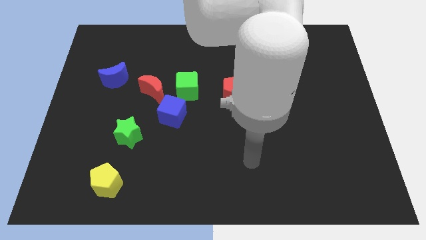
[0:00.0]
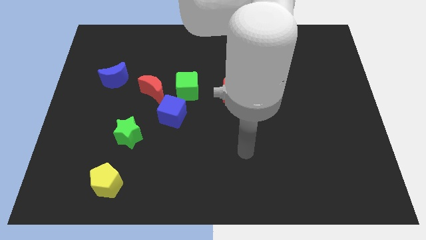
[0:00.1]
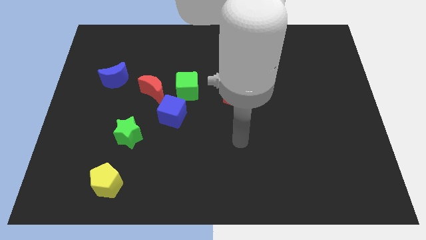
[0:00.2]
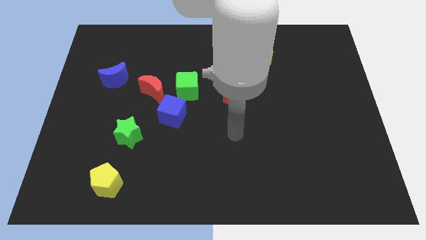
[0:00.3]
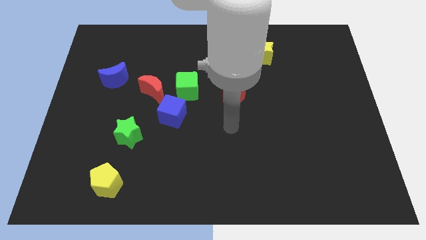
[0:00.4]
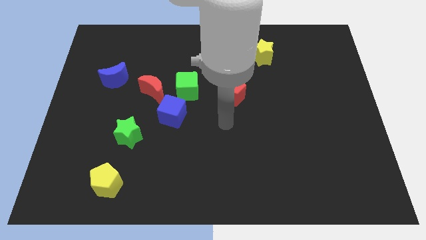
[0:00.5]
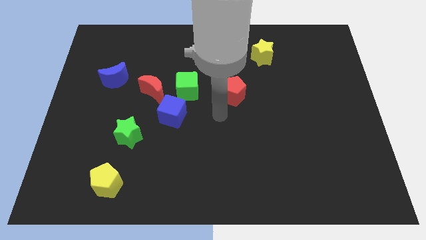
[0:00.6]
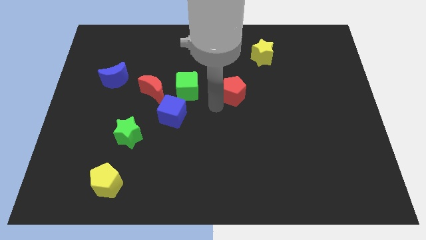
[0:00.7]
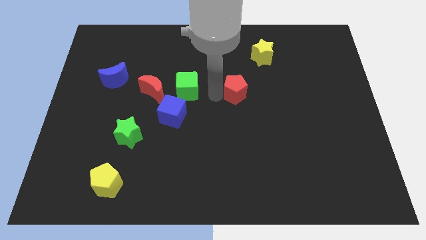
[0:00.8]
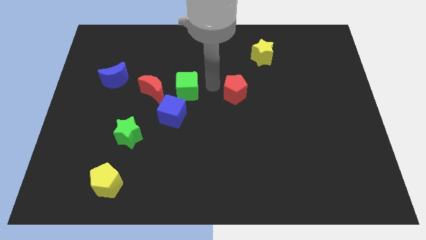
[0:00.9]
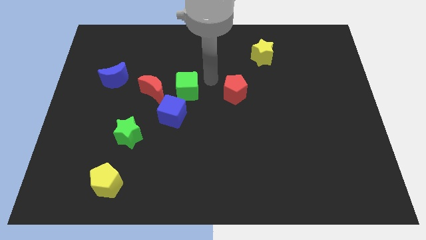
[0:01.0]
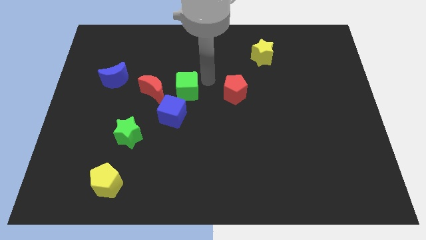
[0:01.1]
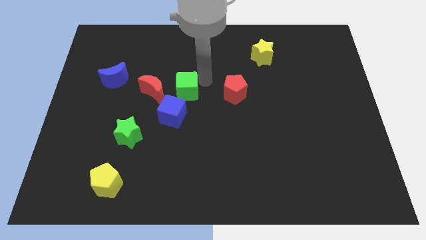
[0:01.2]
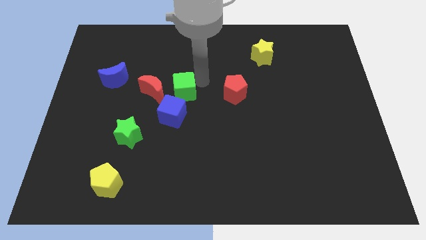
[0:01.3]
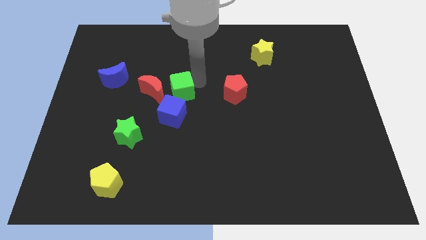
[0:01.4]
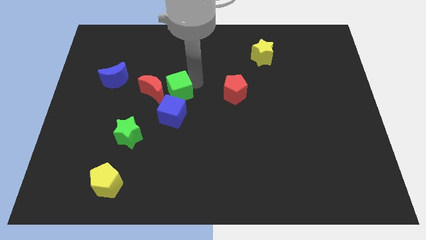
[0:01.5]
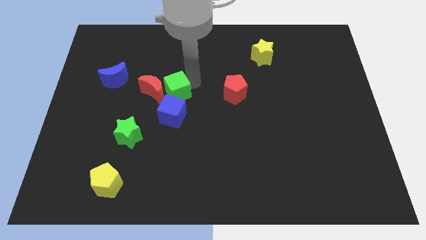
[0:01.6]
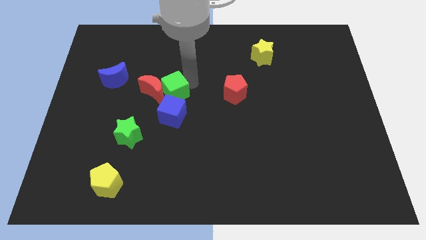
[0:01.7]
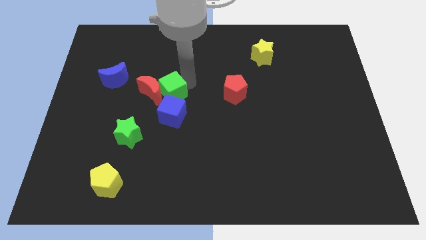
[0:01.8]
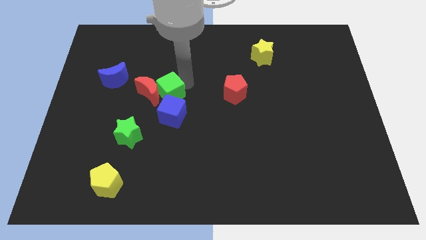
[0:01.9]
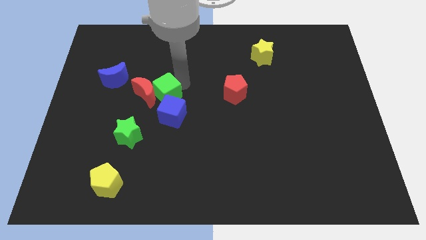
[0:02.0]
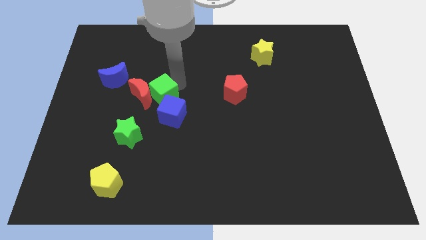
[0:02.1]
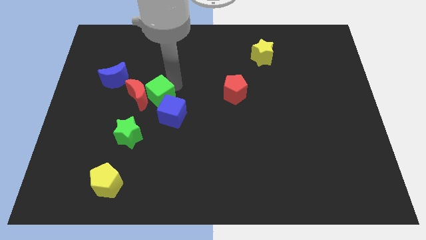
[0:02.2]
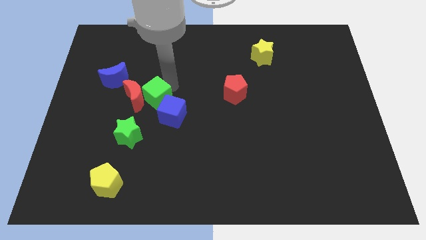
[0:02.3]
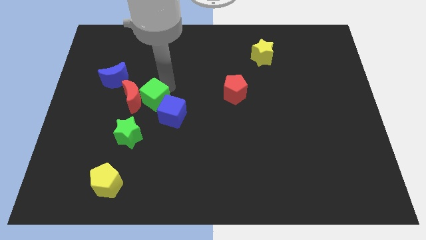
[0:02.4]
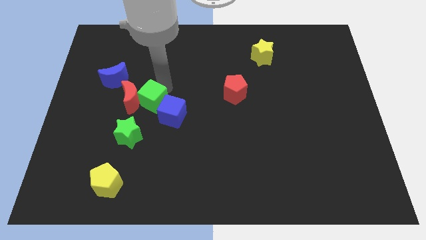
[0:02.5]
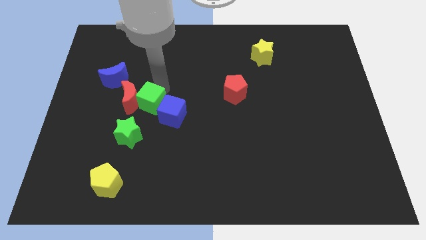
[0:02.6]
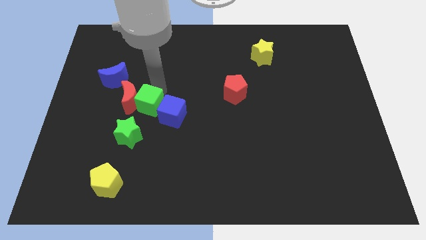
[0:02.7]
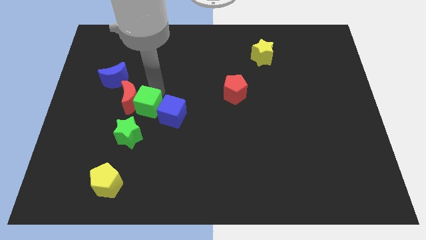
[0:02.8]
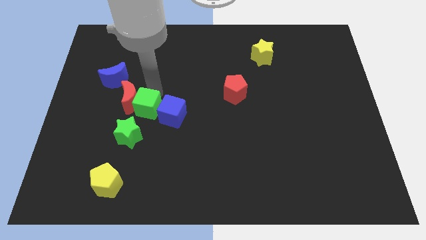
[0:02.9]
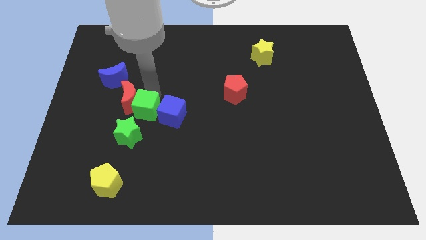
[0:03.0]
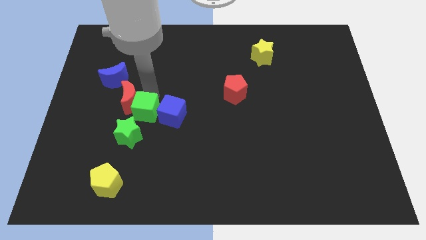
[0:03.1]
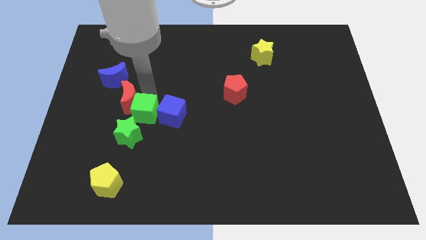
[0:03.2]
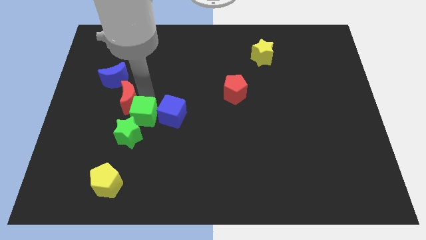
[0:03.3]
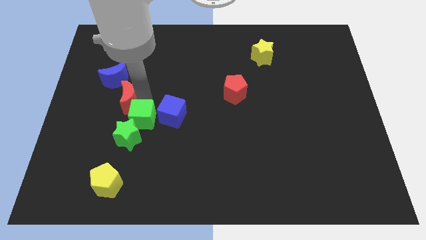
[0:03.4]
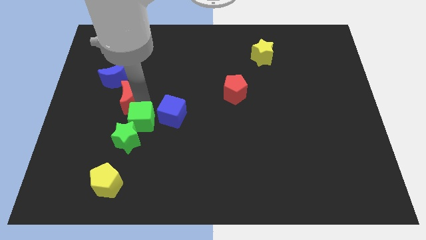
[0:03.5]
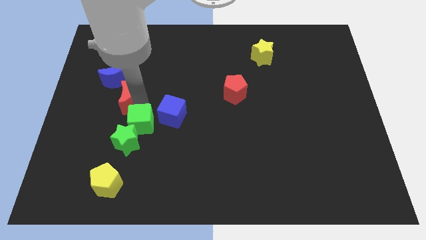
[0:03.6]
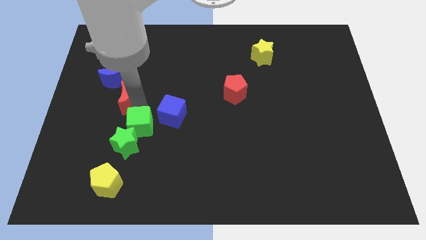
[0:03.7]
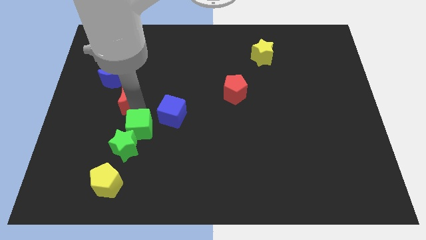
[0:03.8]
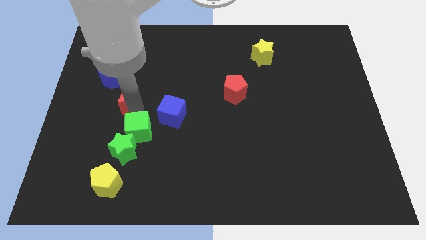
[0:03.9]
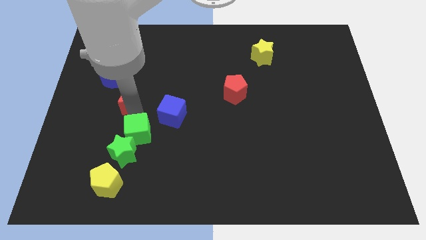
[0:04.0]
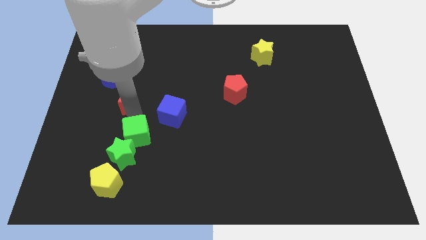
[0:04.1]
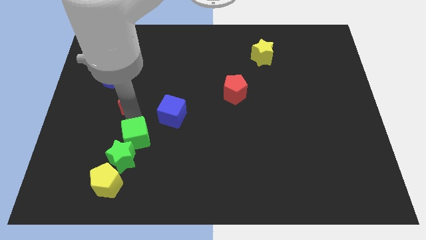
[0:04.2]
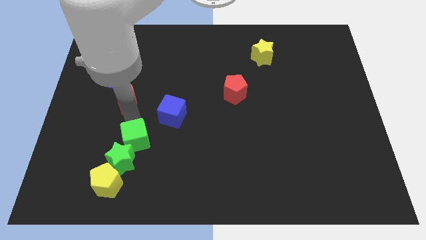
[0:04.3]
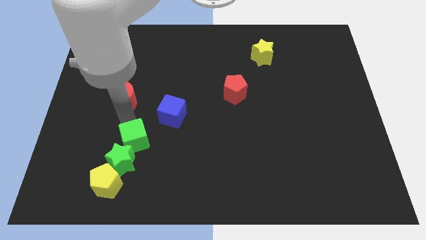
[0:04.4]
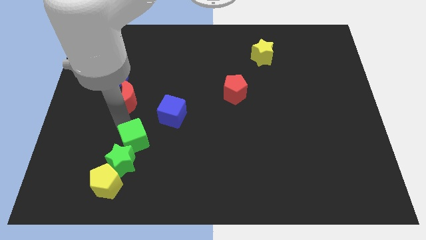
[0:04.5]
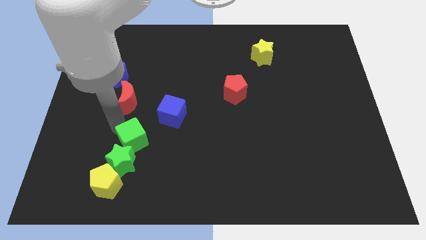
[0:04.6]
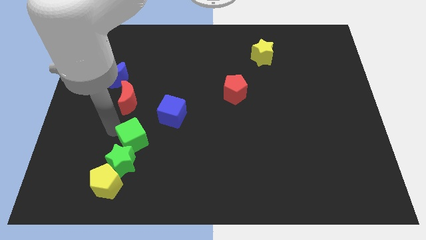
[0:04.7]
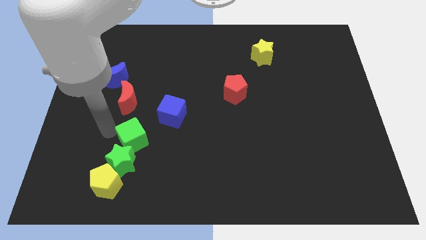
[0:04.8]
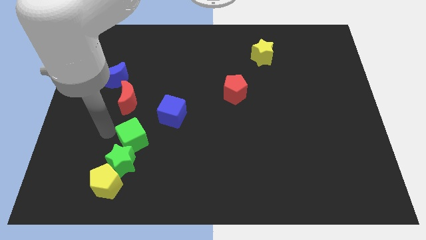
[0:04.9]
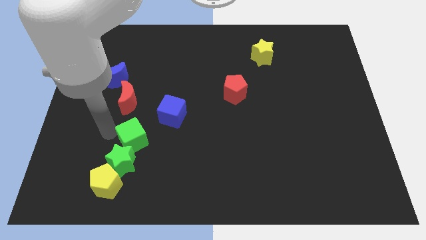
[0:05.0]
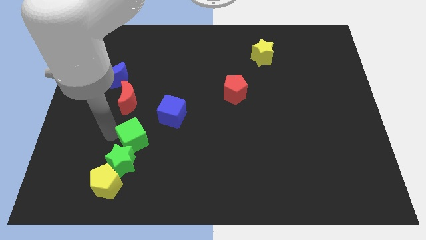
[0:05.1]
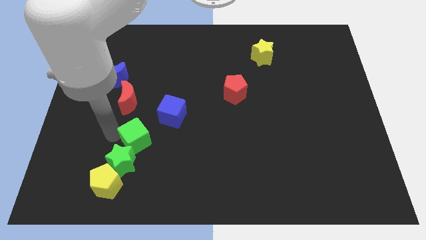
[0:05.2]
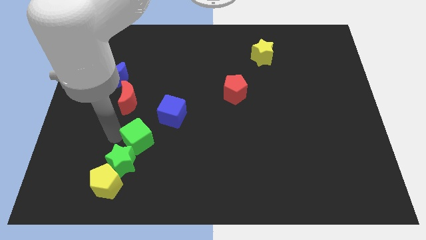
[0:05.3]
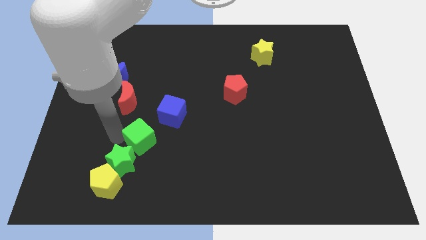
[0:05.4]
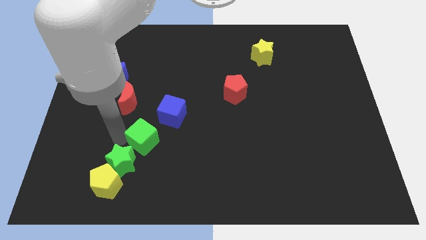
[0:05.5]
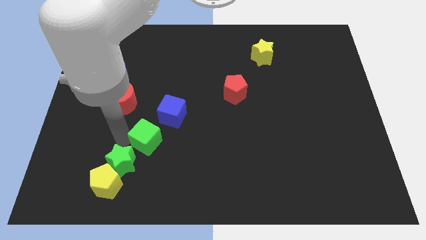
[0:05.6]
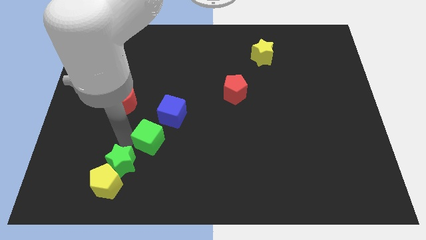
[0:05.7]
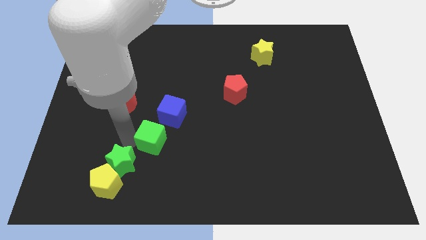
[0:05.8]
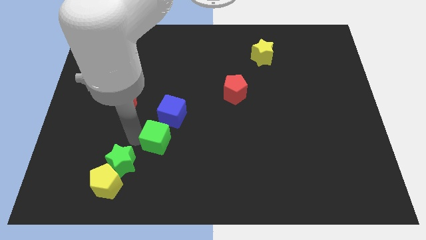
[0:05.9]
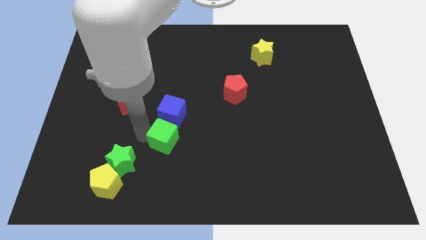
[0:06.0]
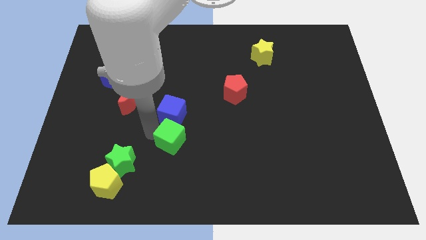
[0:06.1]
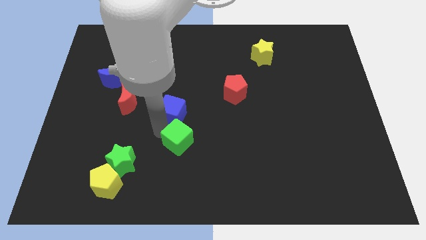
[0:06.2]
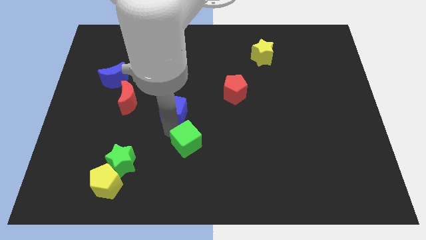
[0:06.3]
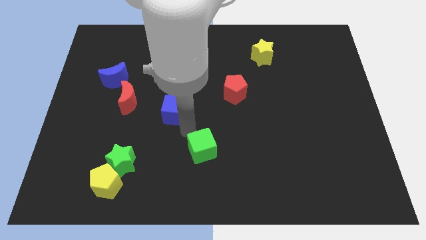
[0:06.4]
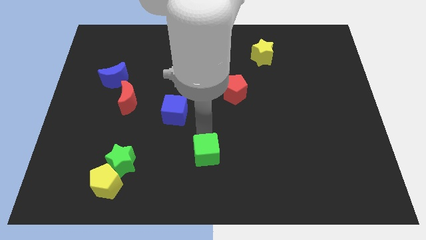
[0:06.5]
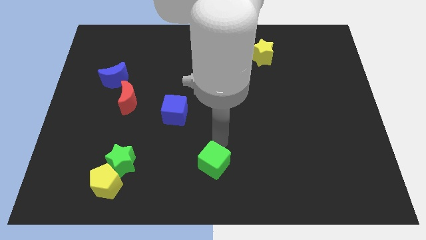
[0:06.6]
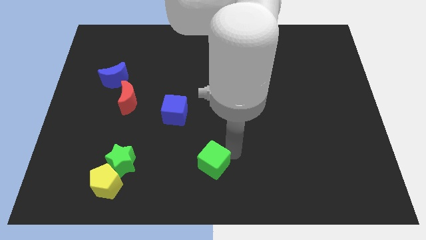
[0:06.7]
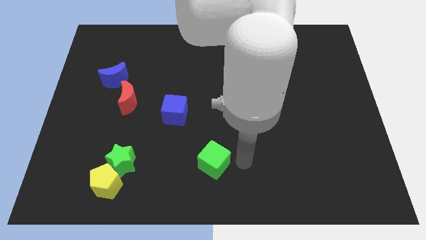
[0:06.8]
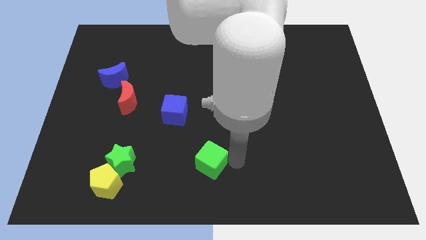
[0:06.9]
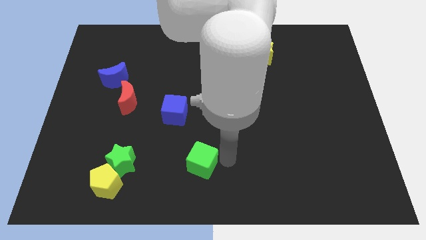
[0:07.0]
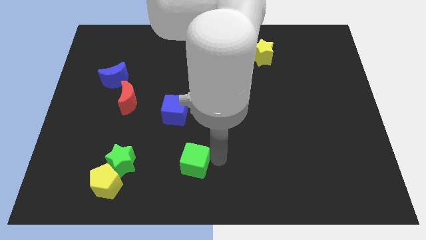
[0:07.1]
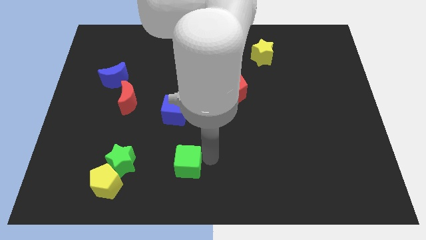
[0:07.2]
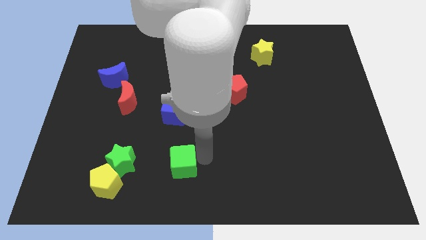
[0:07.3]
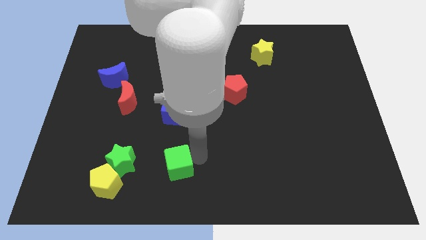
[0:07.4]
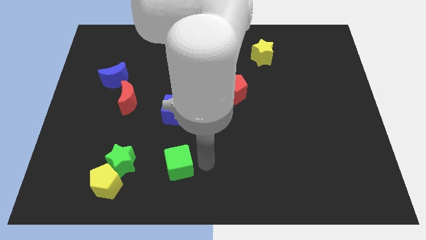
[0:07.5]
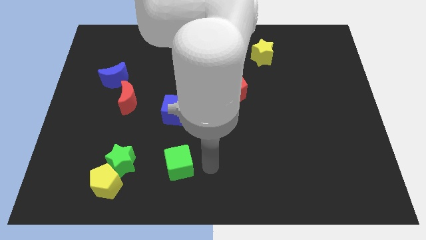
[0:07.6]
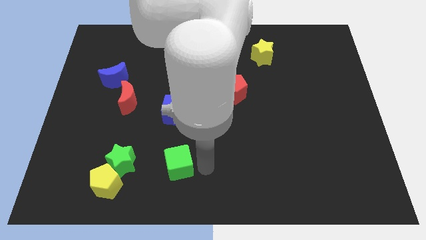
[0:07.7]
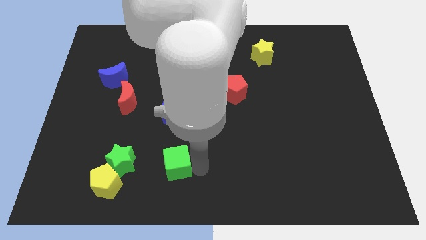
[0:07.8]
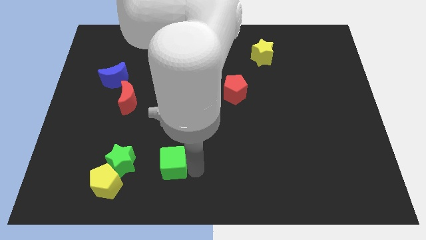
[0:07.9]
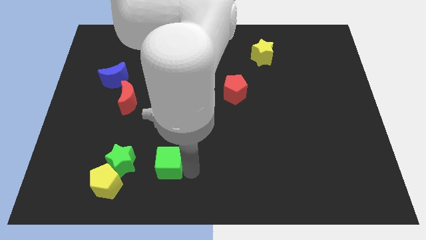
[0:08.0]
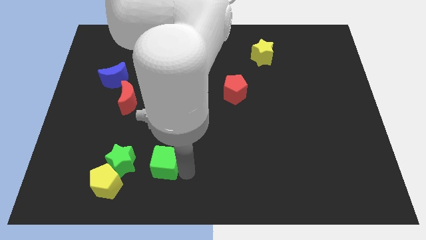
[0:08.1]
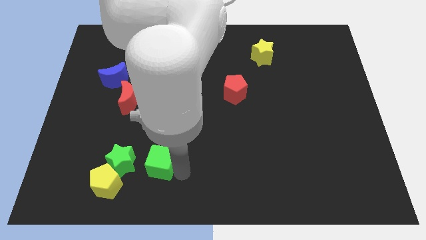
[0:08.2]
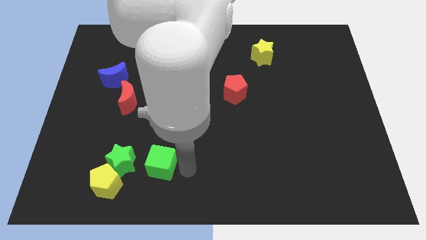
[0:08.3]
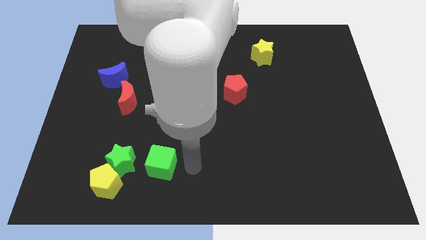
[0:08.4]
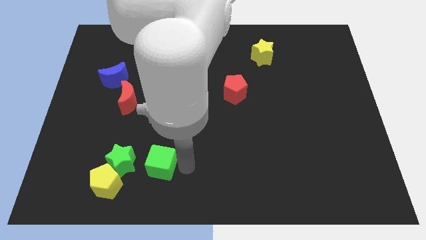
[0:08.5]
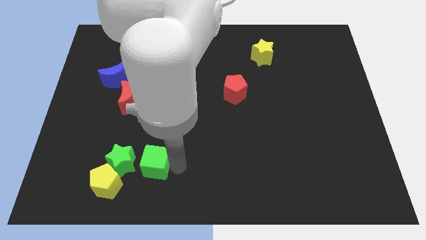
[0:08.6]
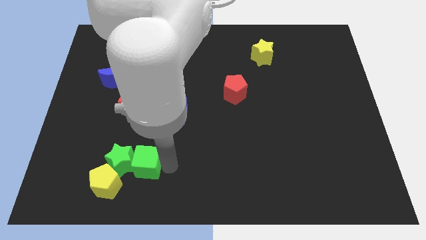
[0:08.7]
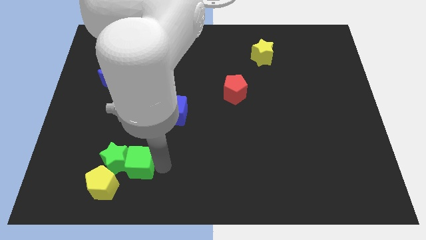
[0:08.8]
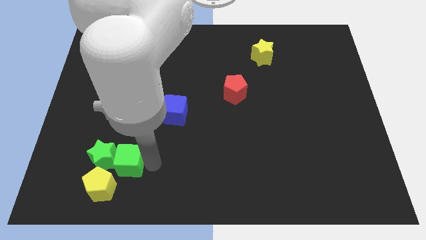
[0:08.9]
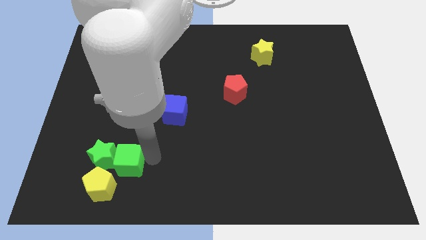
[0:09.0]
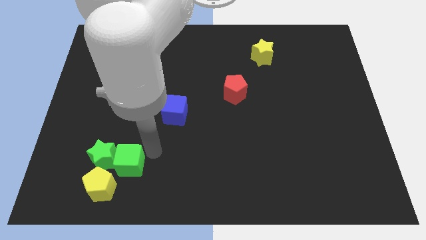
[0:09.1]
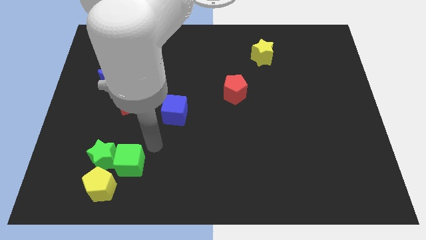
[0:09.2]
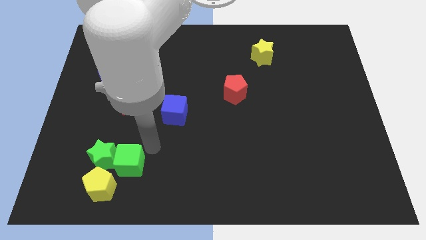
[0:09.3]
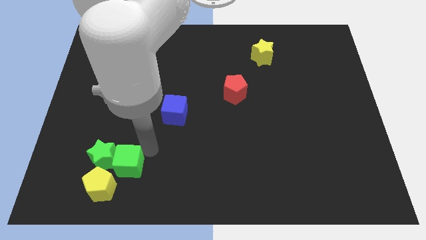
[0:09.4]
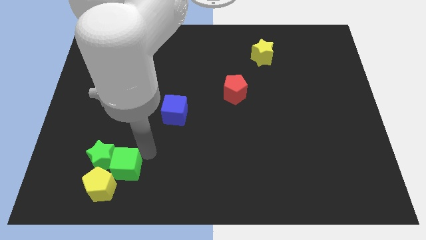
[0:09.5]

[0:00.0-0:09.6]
move the green cube next to the yellow pentagon
